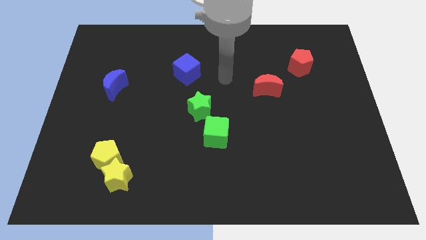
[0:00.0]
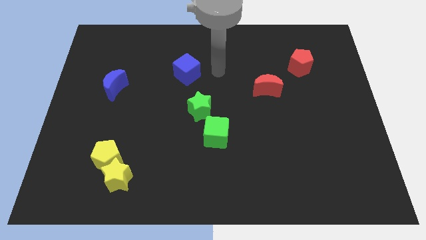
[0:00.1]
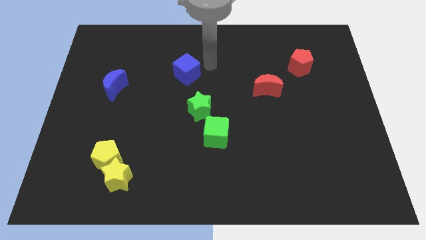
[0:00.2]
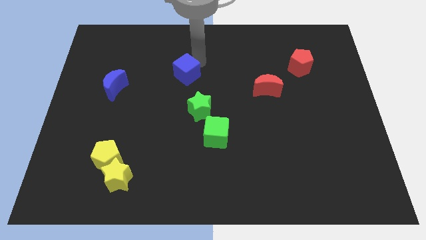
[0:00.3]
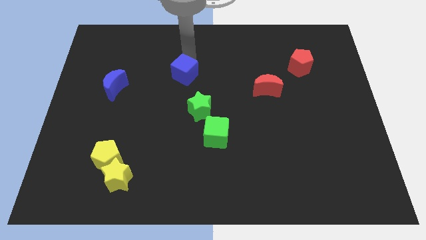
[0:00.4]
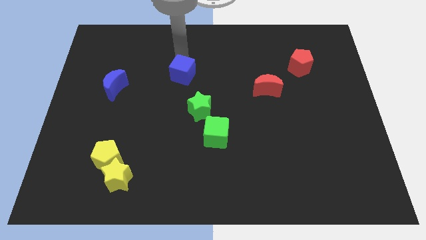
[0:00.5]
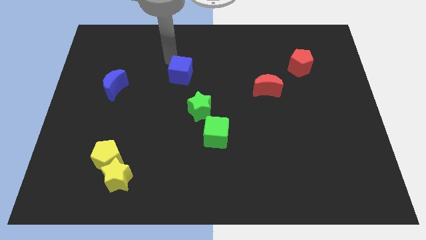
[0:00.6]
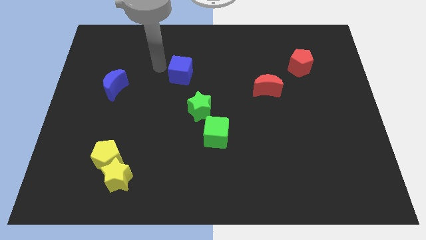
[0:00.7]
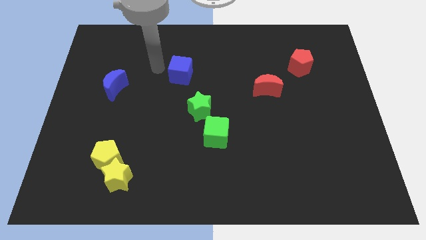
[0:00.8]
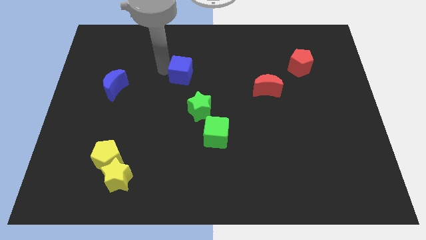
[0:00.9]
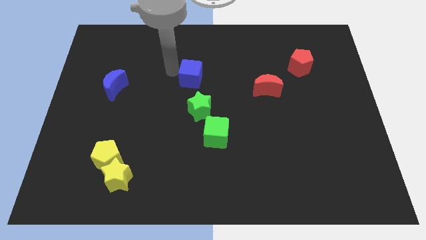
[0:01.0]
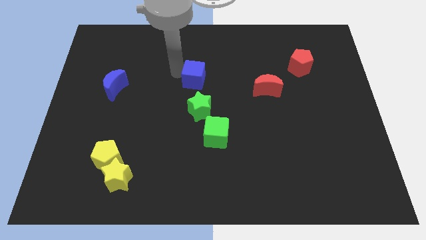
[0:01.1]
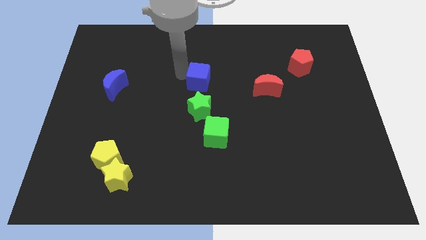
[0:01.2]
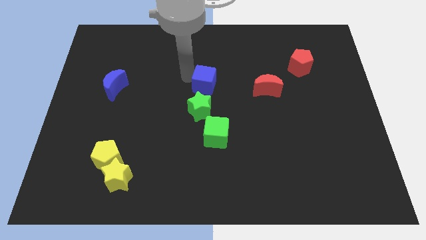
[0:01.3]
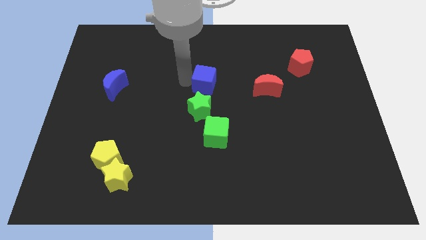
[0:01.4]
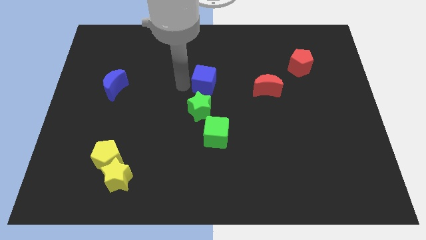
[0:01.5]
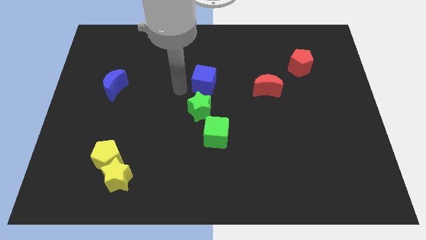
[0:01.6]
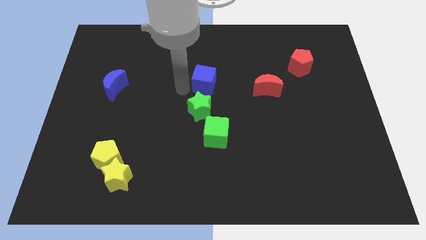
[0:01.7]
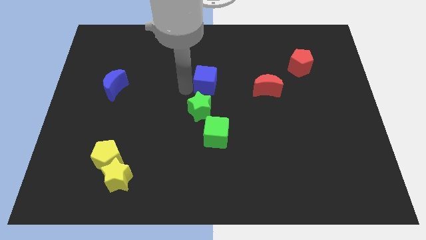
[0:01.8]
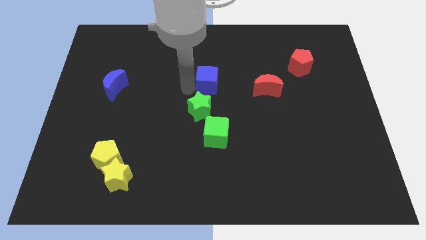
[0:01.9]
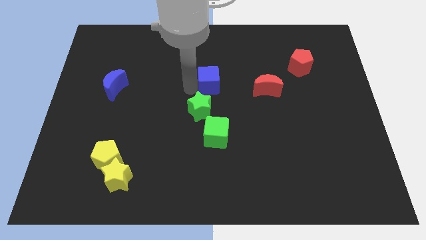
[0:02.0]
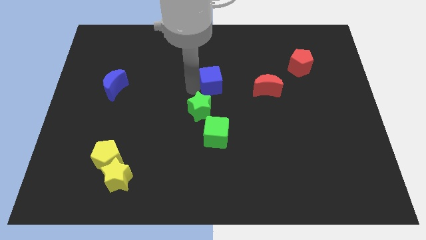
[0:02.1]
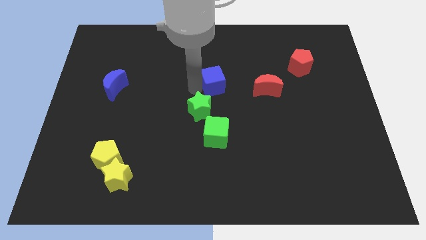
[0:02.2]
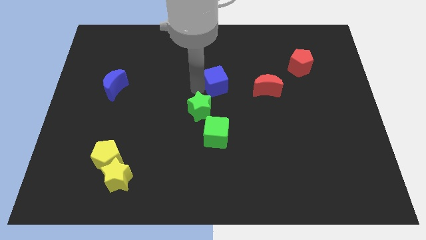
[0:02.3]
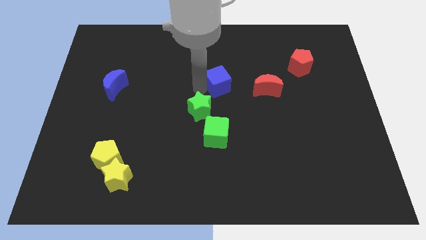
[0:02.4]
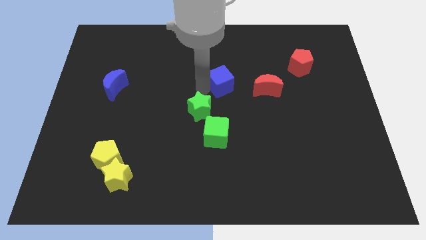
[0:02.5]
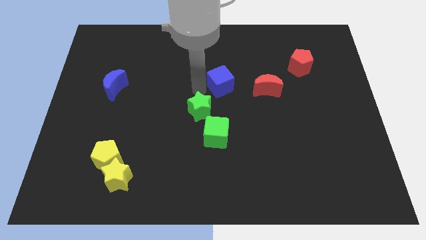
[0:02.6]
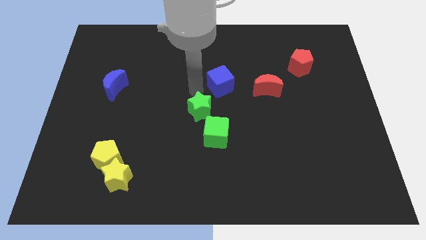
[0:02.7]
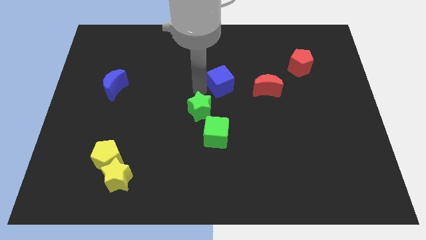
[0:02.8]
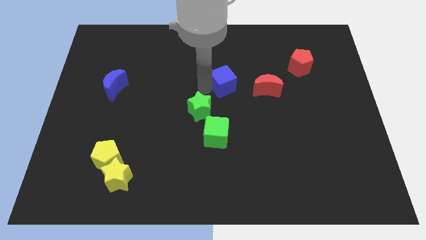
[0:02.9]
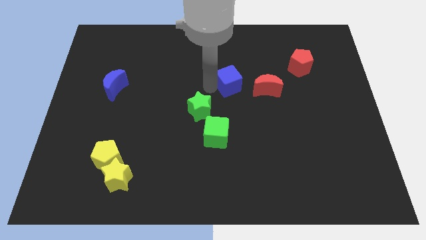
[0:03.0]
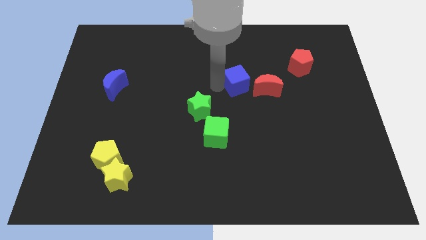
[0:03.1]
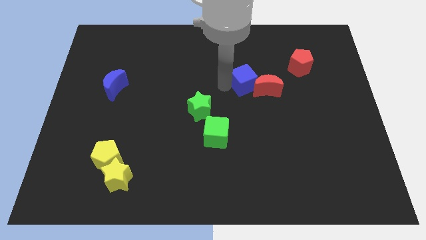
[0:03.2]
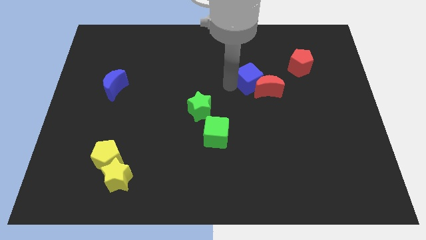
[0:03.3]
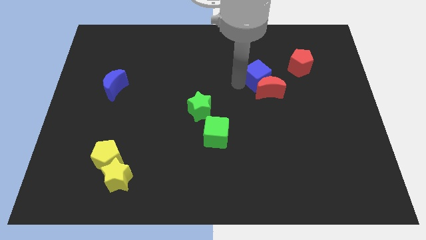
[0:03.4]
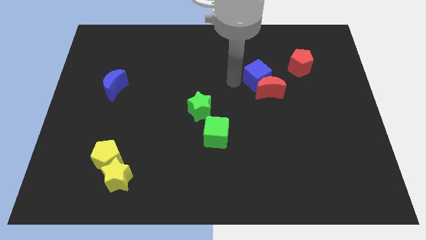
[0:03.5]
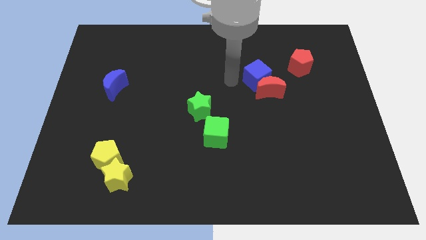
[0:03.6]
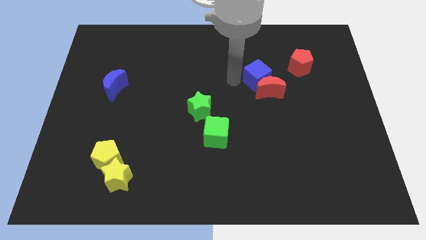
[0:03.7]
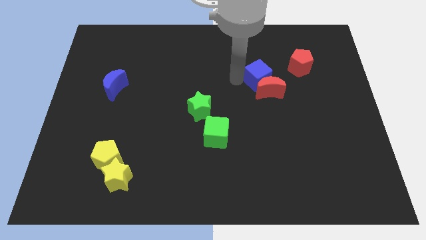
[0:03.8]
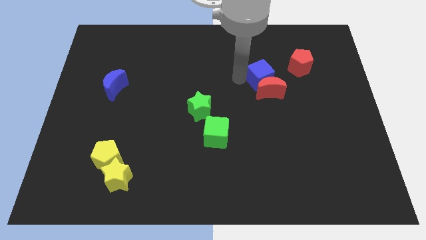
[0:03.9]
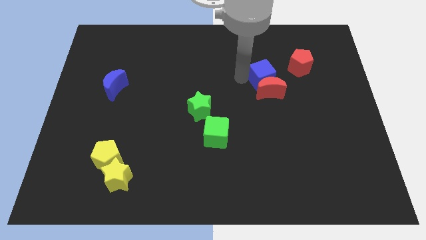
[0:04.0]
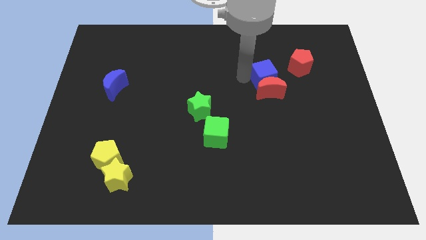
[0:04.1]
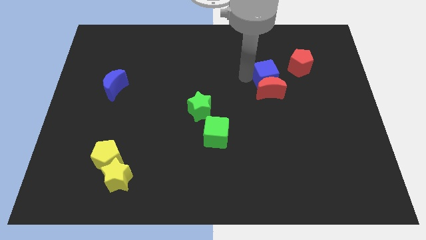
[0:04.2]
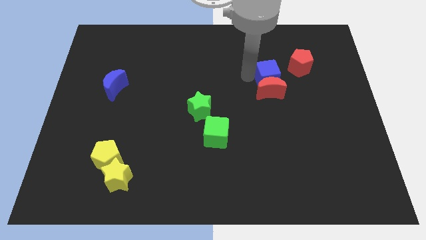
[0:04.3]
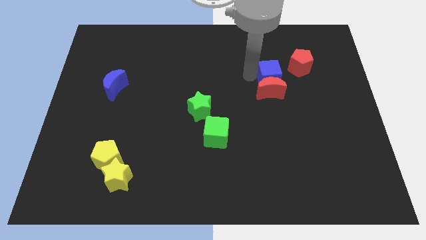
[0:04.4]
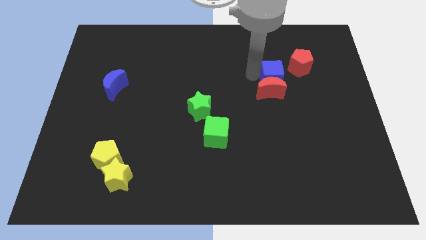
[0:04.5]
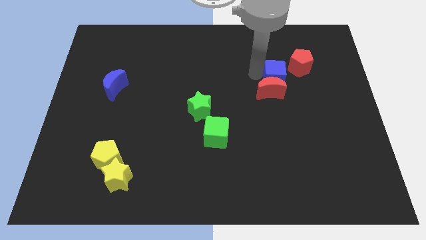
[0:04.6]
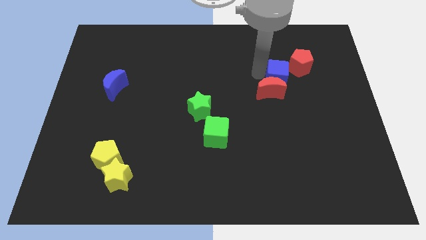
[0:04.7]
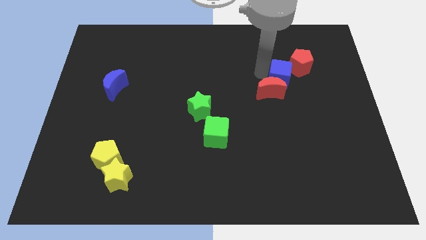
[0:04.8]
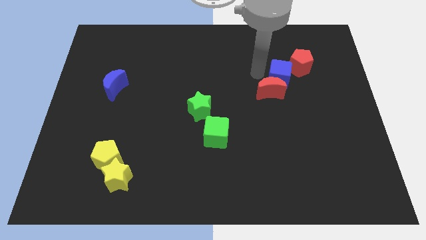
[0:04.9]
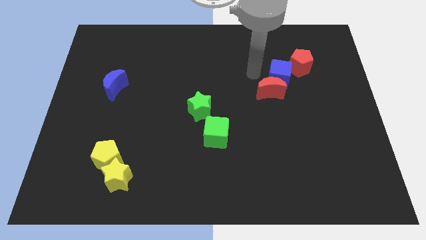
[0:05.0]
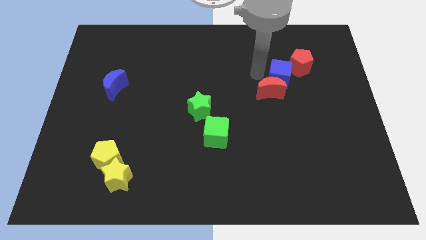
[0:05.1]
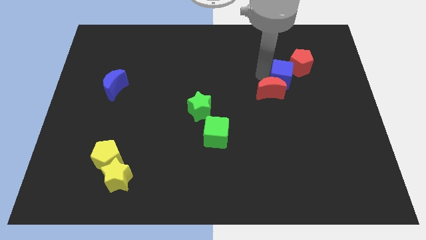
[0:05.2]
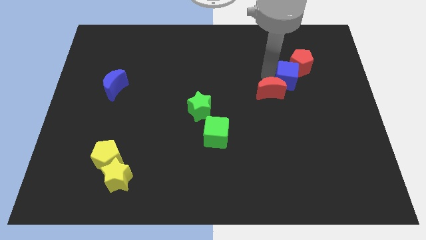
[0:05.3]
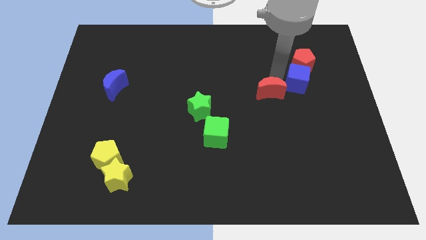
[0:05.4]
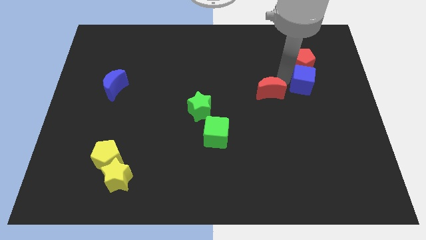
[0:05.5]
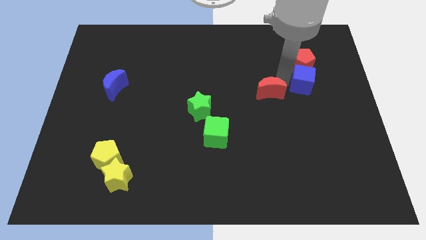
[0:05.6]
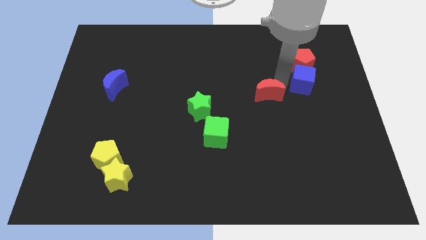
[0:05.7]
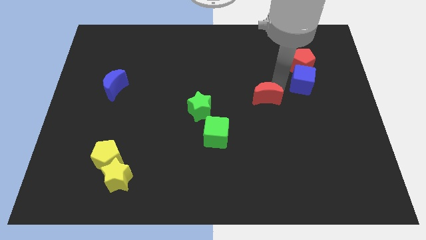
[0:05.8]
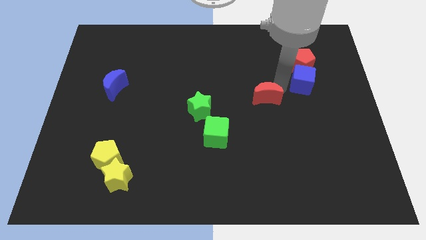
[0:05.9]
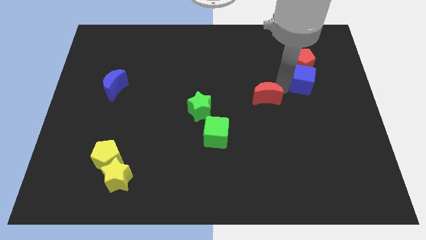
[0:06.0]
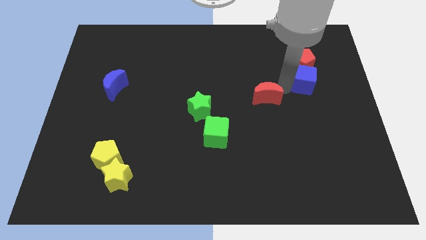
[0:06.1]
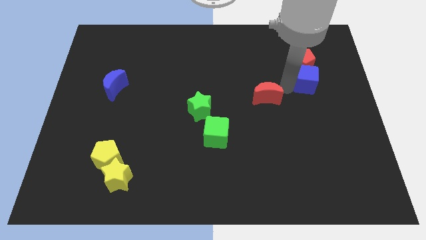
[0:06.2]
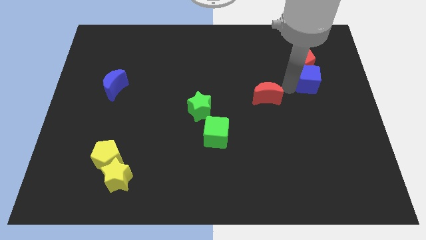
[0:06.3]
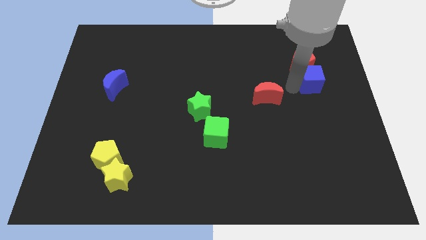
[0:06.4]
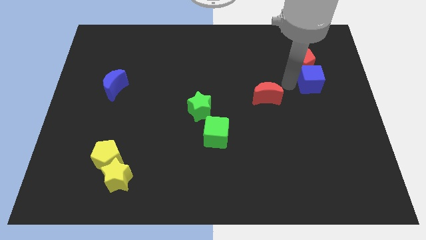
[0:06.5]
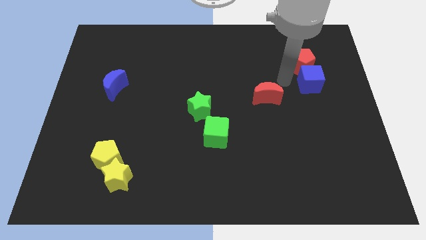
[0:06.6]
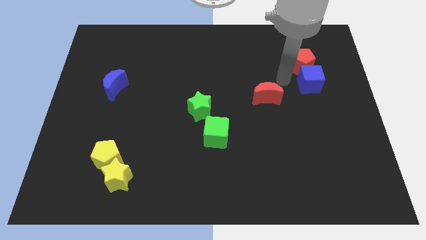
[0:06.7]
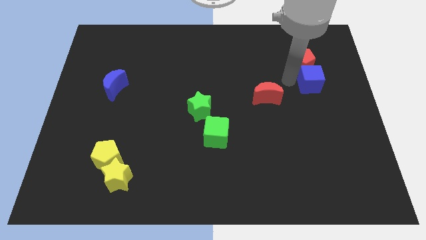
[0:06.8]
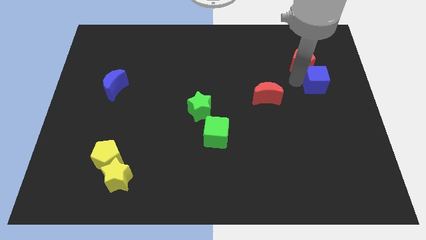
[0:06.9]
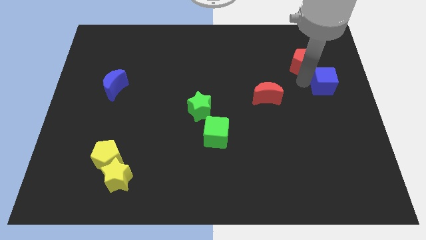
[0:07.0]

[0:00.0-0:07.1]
push the blue cube to the right side

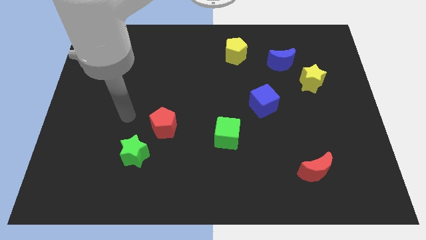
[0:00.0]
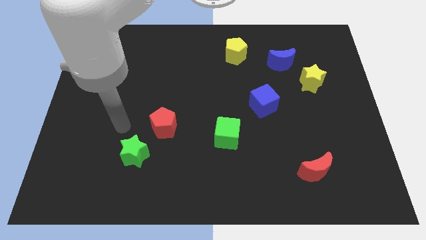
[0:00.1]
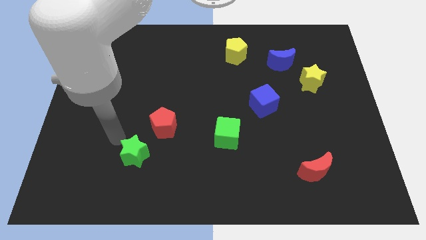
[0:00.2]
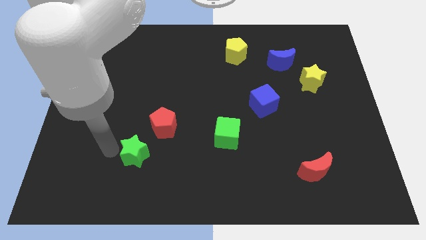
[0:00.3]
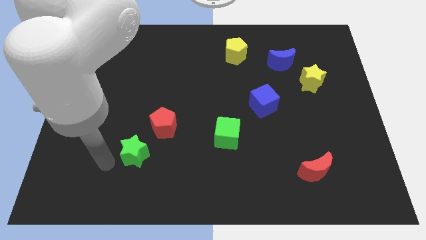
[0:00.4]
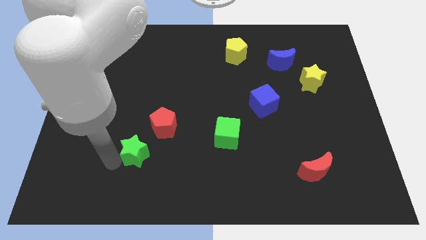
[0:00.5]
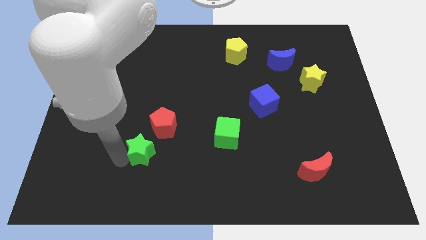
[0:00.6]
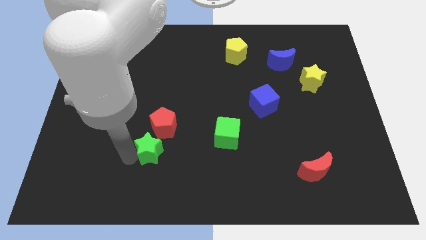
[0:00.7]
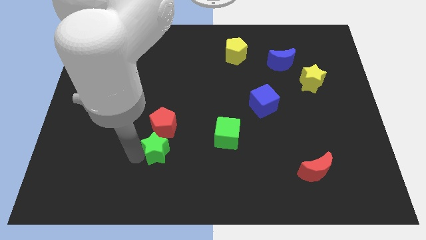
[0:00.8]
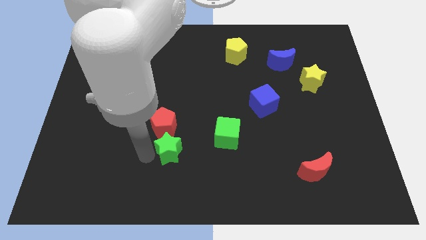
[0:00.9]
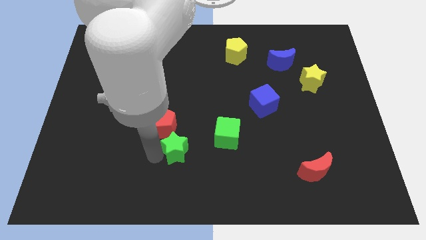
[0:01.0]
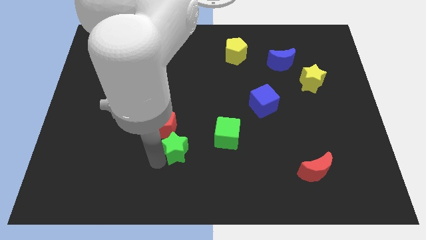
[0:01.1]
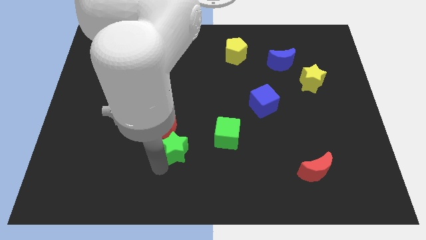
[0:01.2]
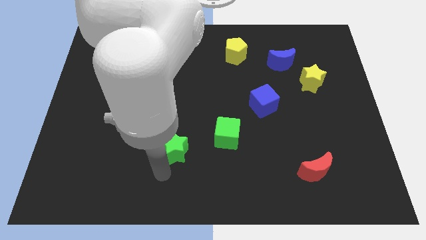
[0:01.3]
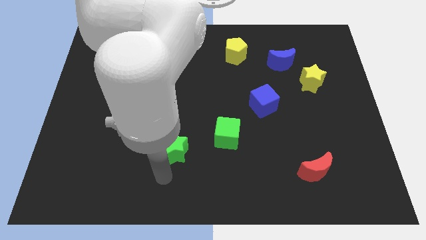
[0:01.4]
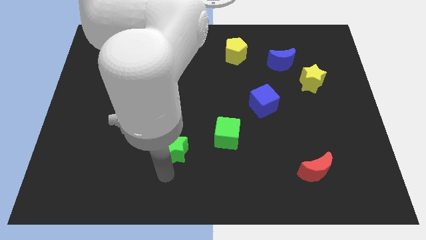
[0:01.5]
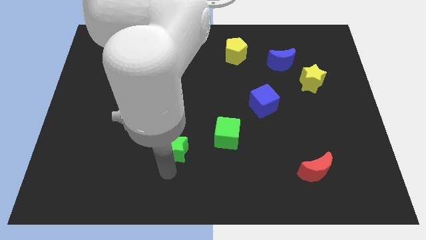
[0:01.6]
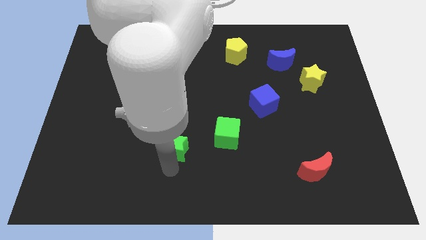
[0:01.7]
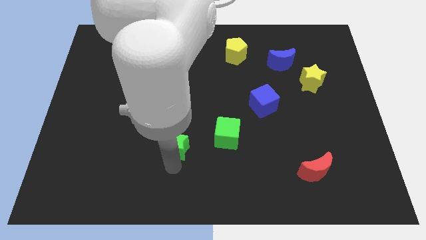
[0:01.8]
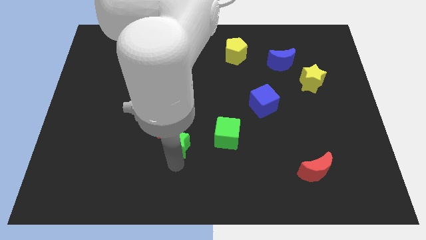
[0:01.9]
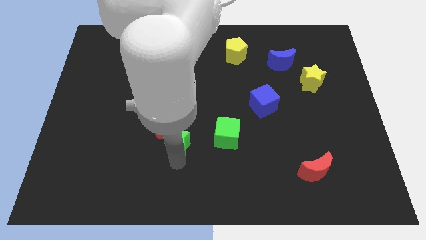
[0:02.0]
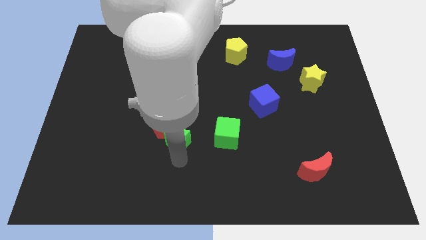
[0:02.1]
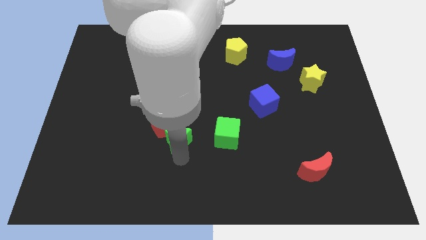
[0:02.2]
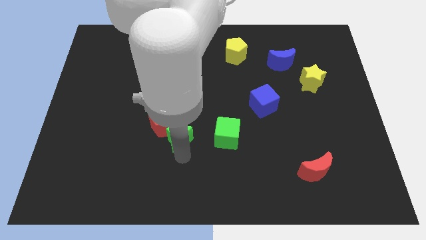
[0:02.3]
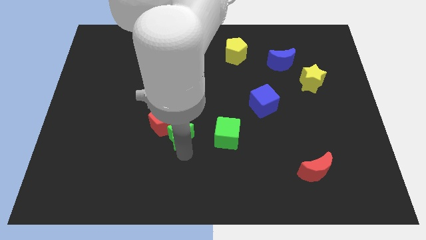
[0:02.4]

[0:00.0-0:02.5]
put the green star to the center
